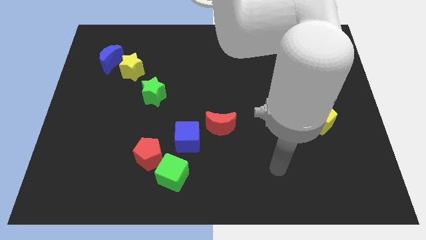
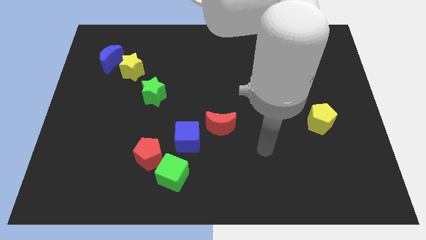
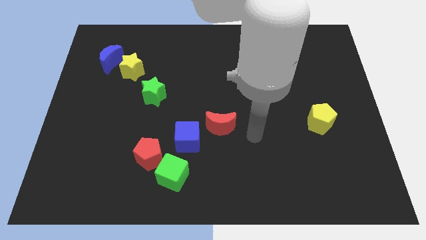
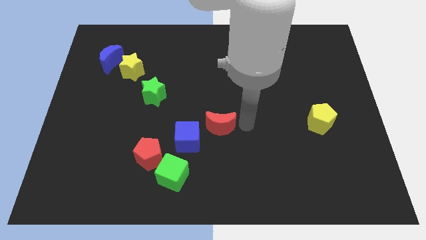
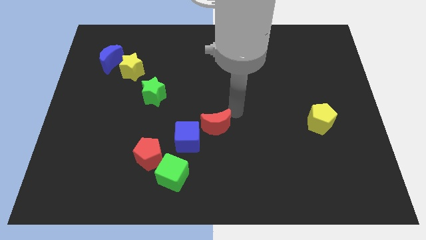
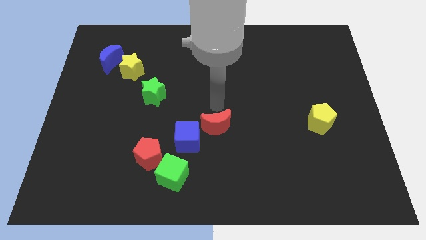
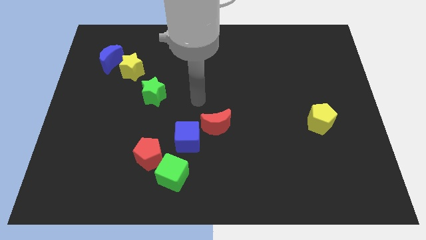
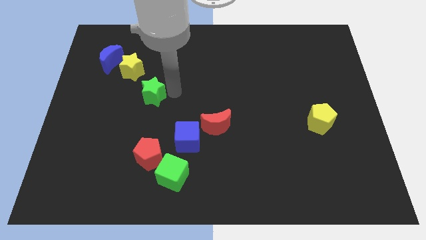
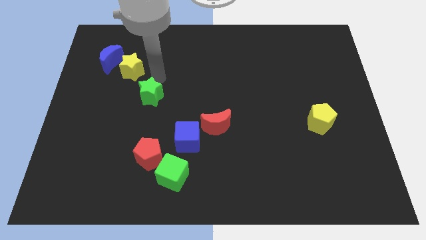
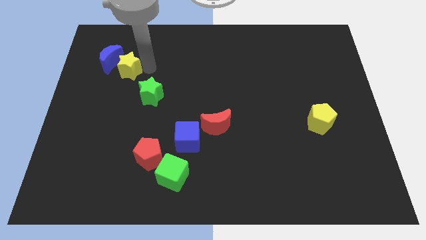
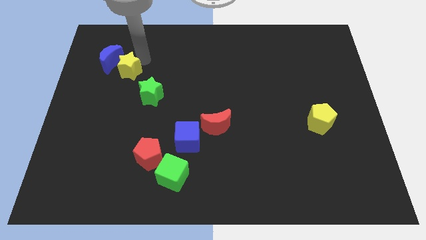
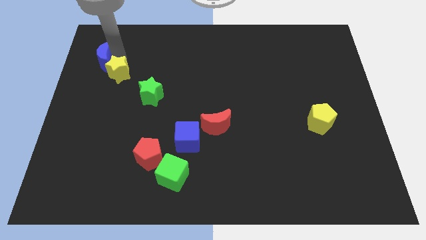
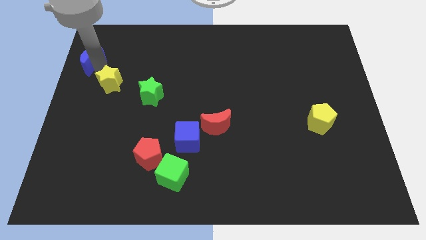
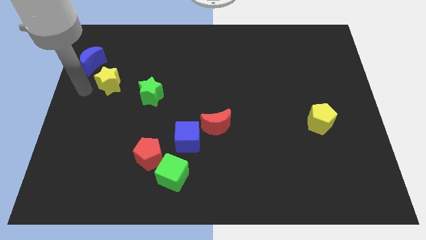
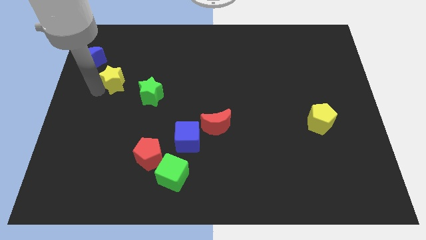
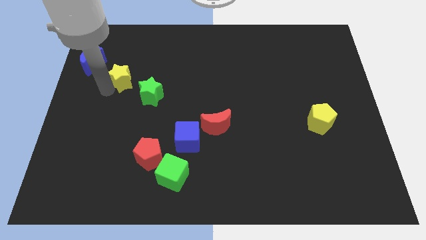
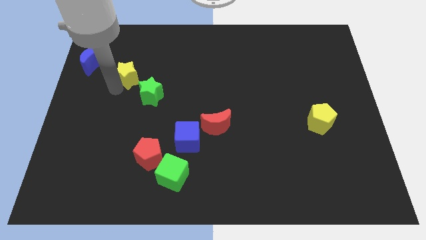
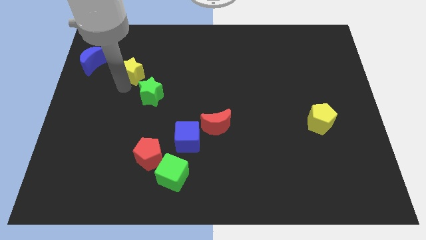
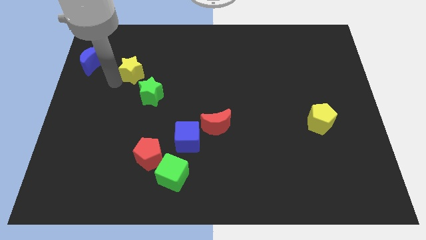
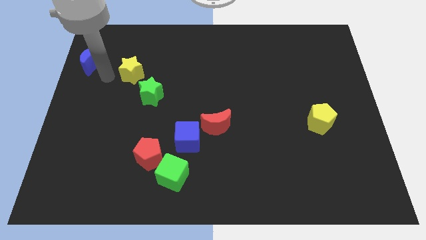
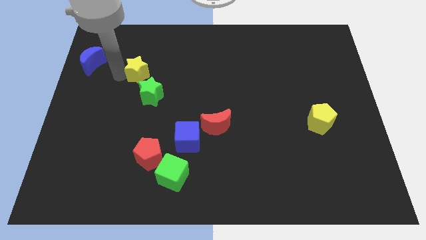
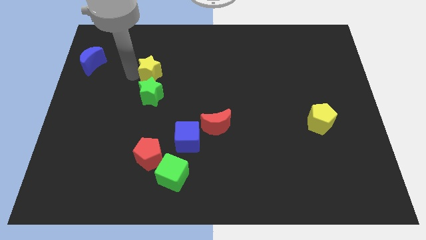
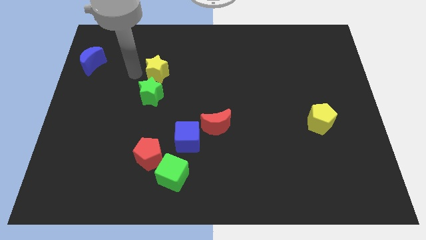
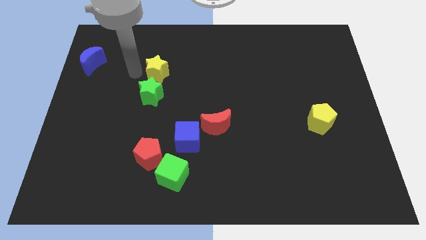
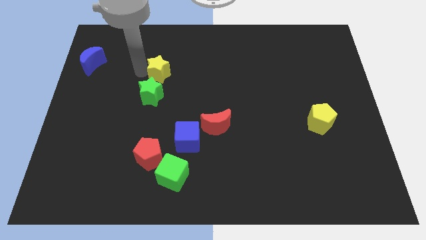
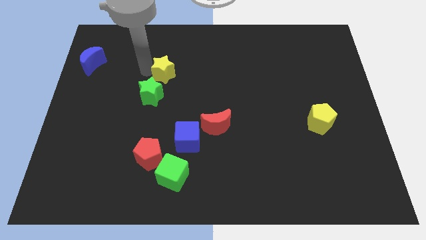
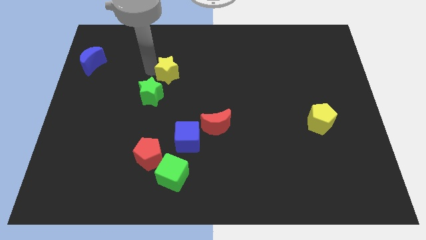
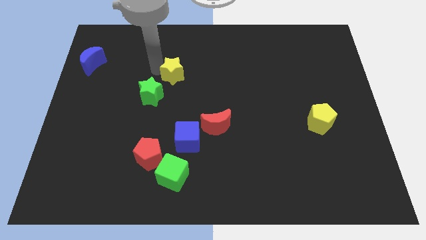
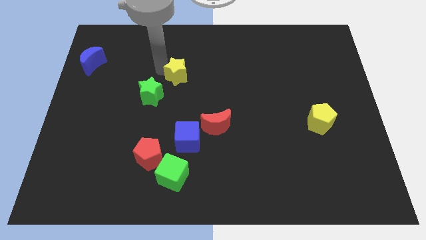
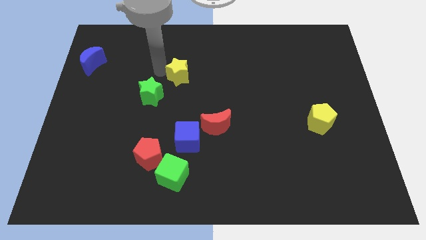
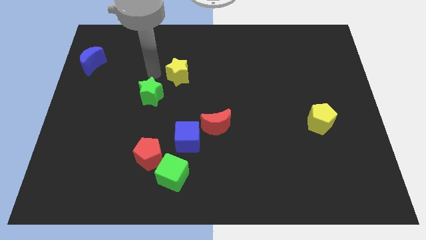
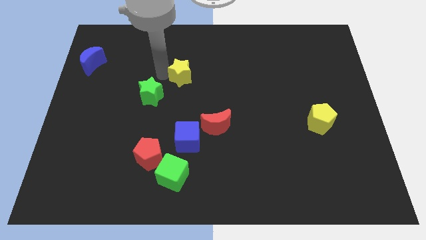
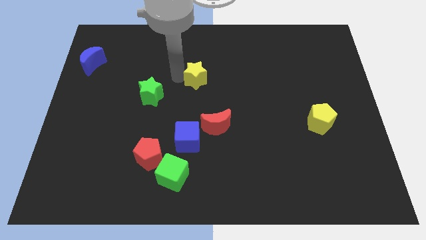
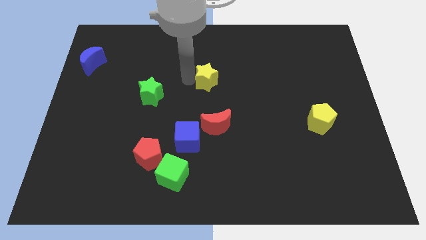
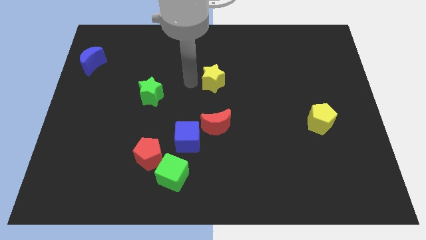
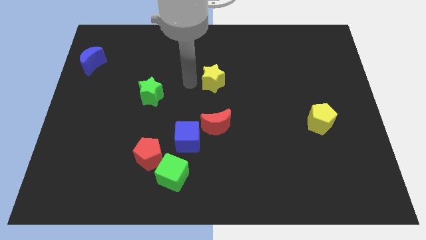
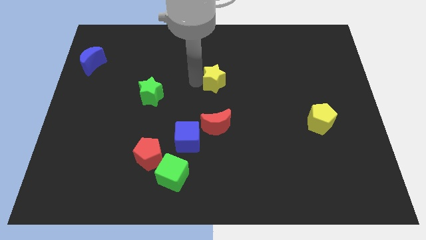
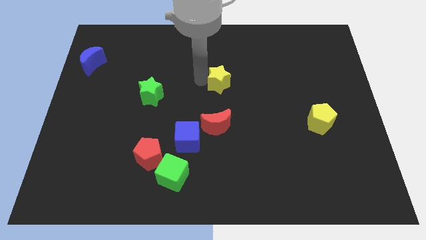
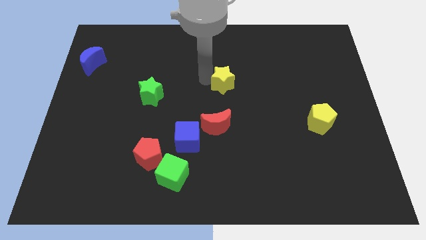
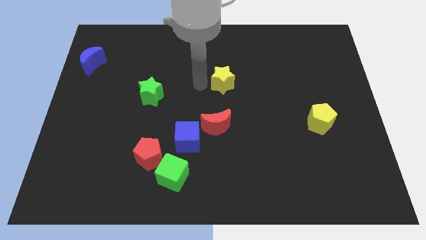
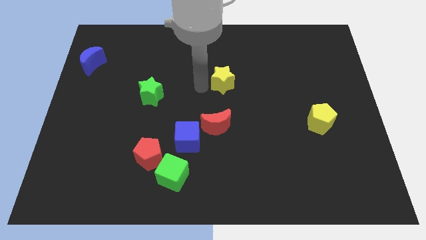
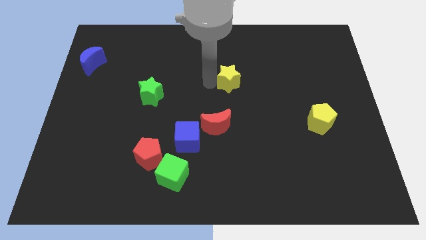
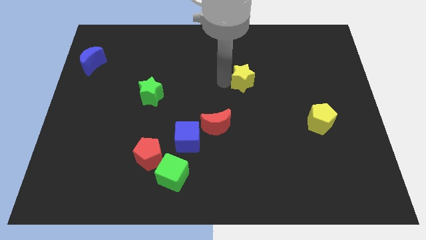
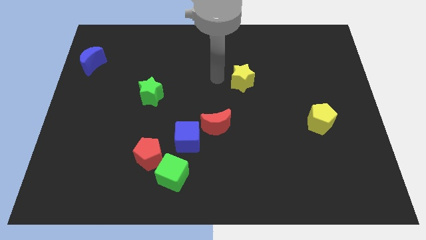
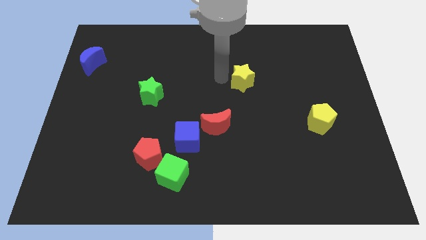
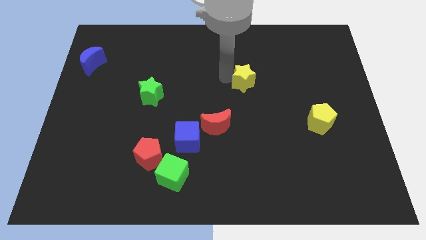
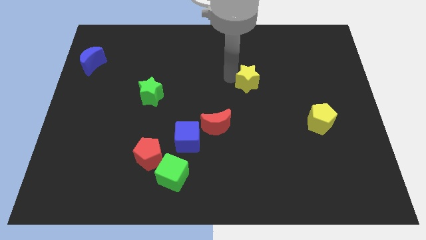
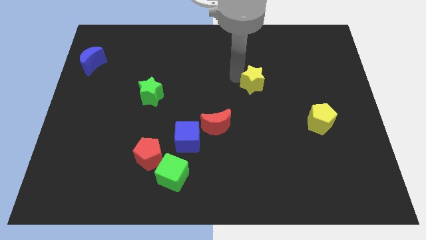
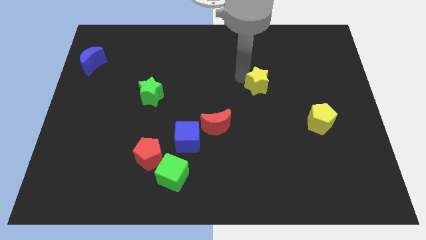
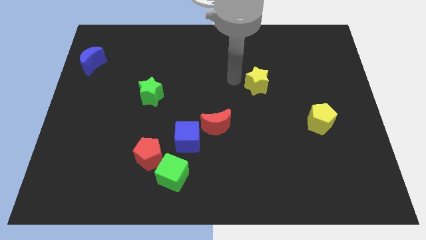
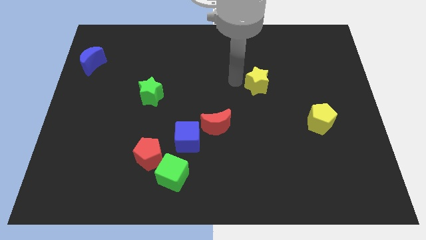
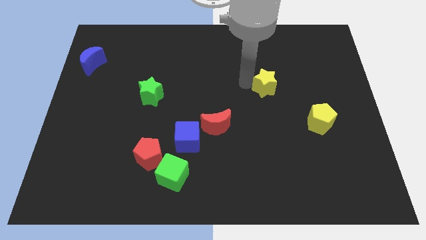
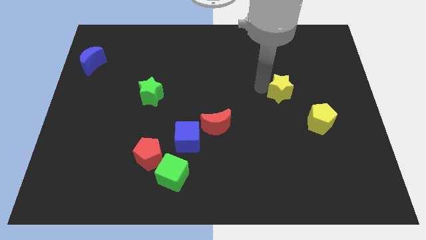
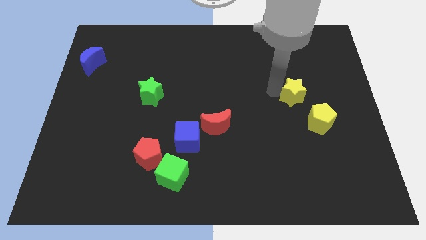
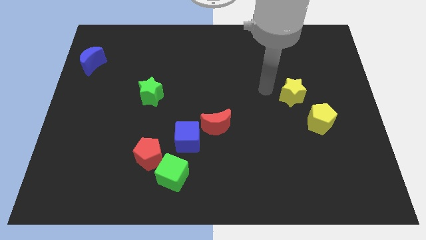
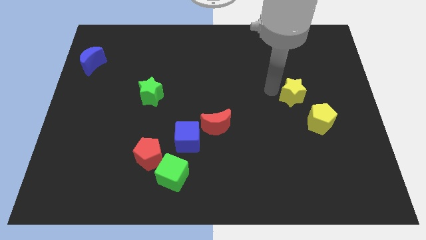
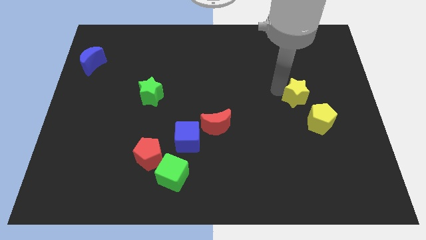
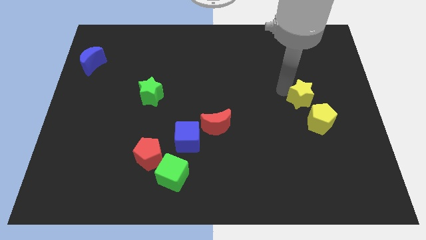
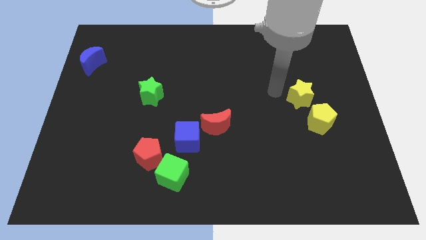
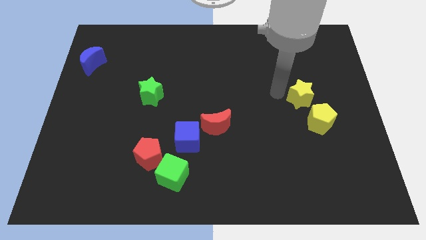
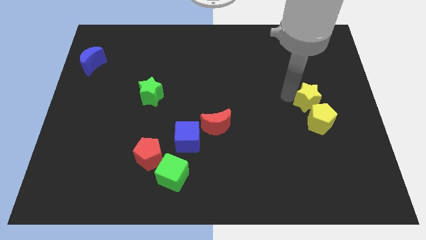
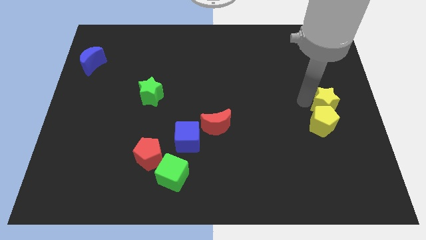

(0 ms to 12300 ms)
push the yellow star to the right side of the board
